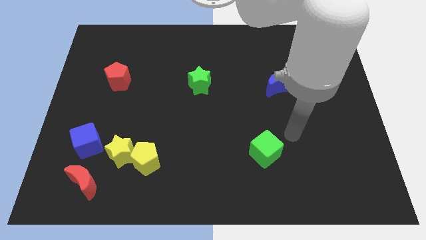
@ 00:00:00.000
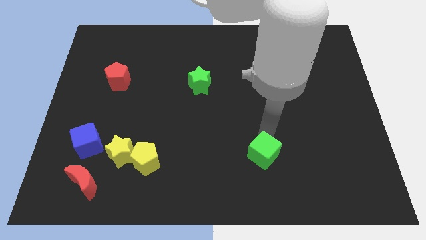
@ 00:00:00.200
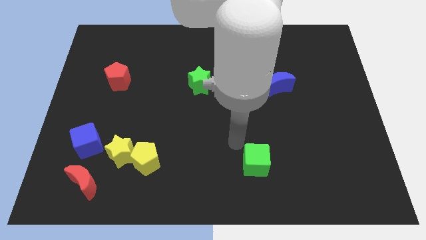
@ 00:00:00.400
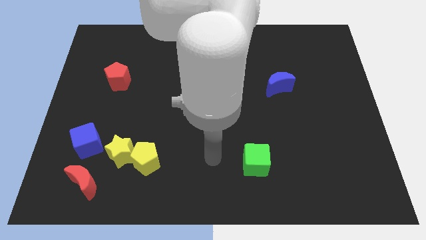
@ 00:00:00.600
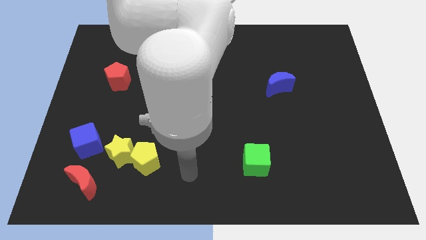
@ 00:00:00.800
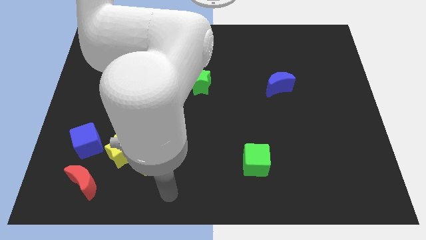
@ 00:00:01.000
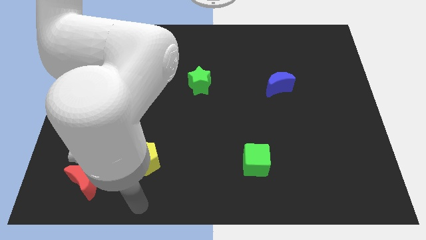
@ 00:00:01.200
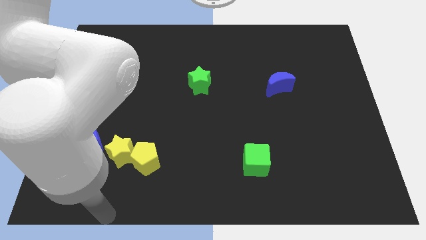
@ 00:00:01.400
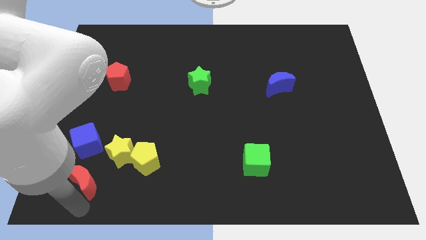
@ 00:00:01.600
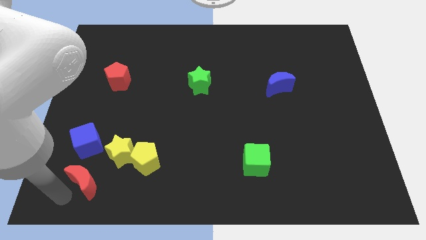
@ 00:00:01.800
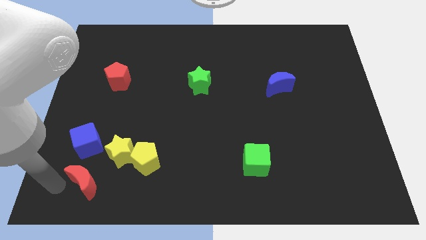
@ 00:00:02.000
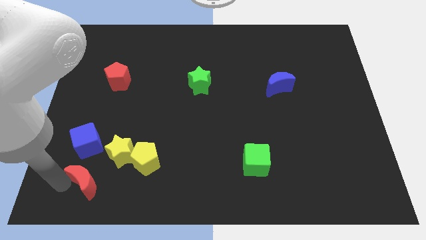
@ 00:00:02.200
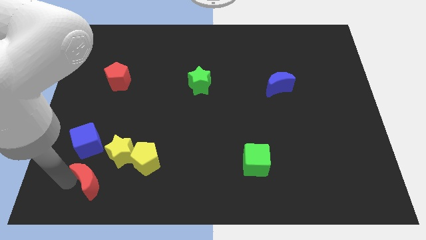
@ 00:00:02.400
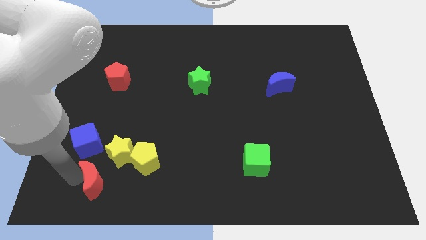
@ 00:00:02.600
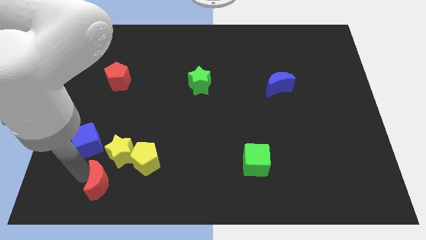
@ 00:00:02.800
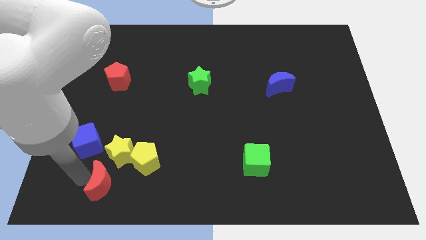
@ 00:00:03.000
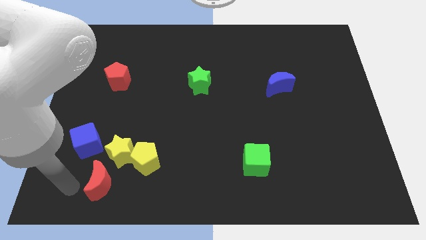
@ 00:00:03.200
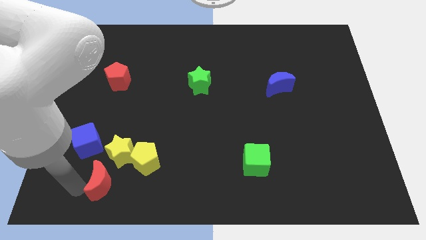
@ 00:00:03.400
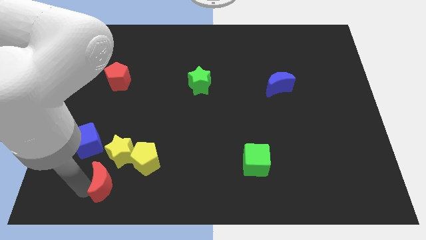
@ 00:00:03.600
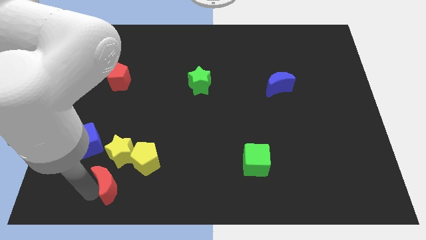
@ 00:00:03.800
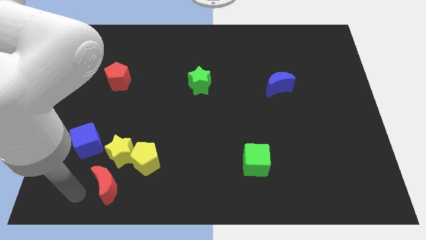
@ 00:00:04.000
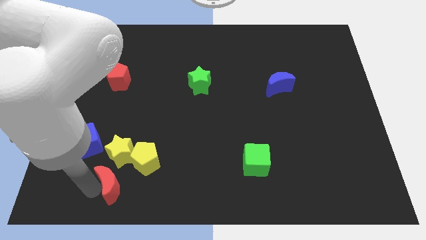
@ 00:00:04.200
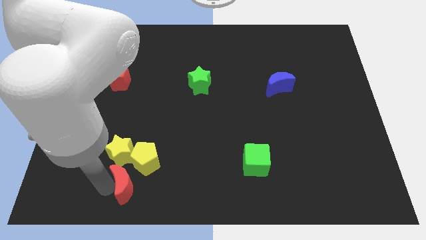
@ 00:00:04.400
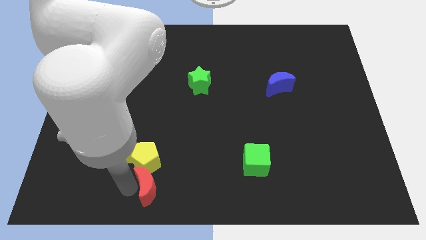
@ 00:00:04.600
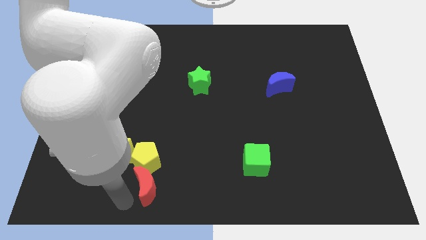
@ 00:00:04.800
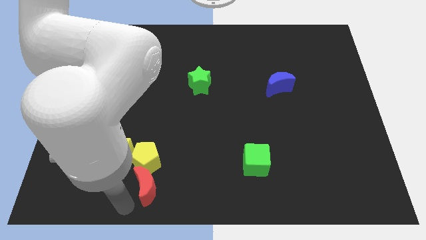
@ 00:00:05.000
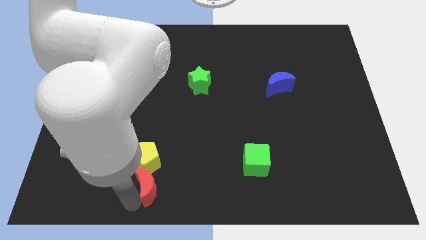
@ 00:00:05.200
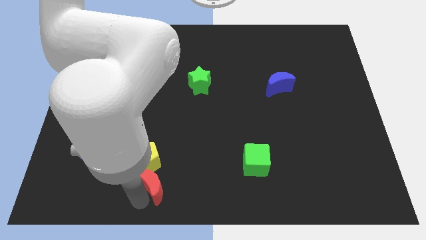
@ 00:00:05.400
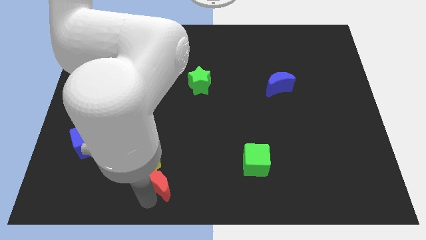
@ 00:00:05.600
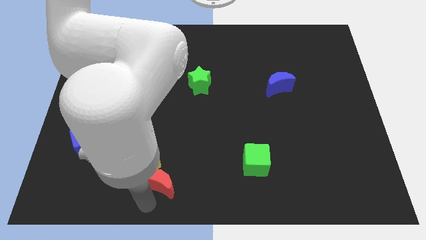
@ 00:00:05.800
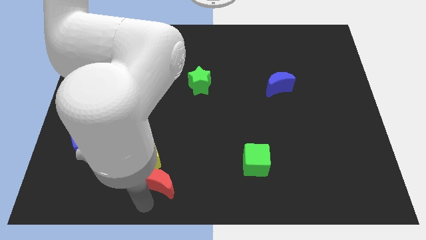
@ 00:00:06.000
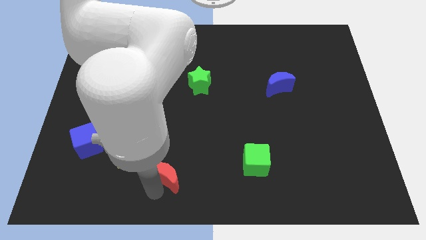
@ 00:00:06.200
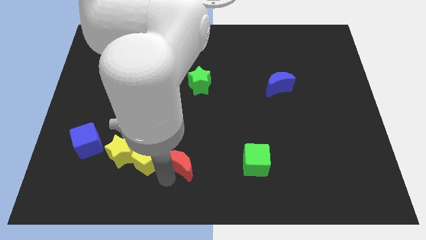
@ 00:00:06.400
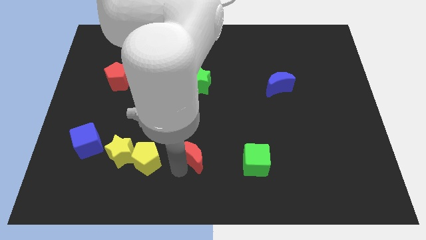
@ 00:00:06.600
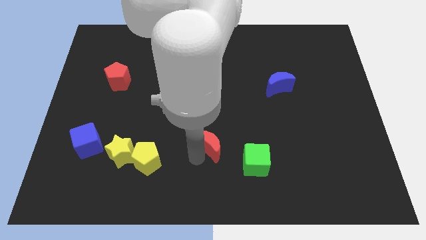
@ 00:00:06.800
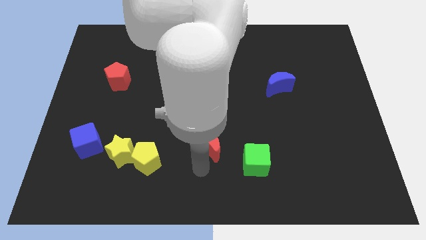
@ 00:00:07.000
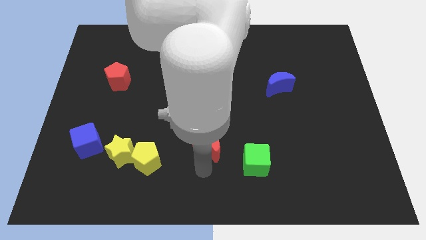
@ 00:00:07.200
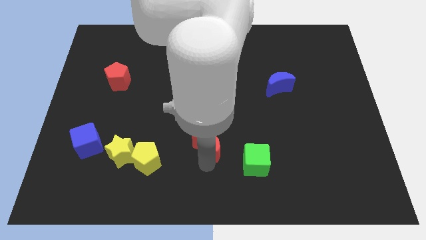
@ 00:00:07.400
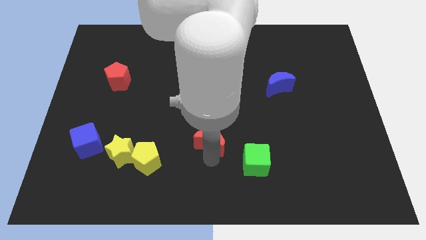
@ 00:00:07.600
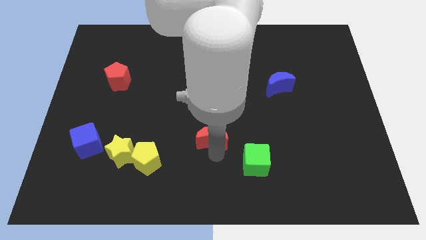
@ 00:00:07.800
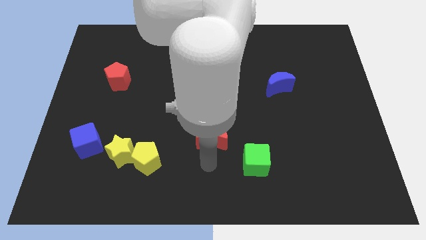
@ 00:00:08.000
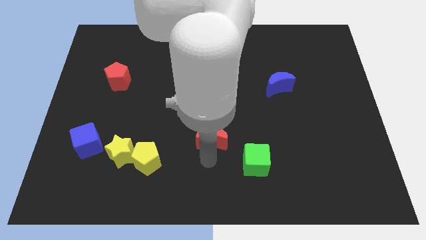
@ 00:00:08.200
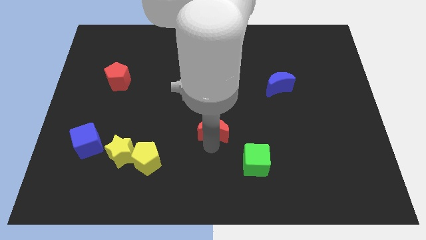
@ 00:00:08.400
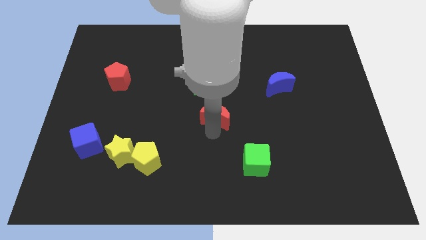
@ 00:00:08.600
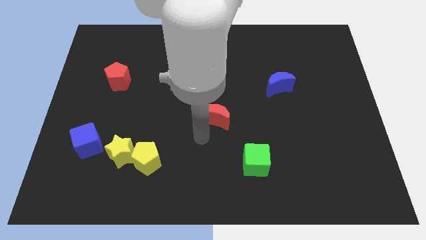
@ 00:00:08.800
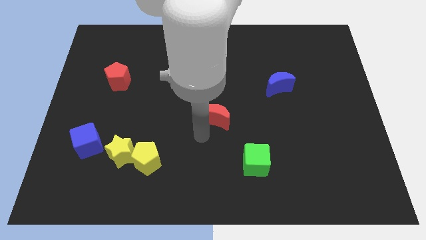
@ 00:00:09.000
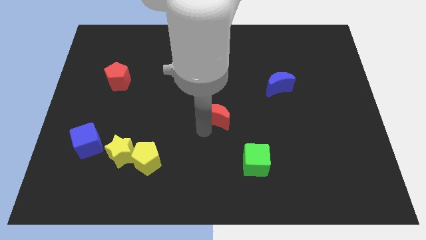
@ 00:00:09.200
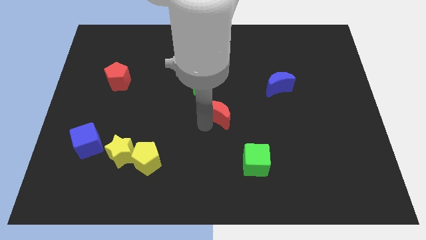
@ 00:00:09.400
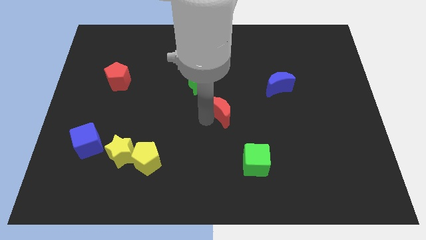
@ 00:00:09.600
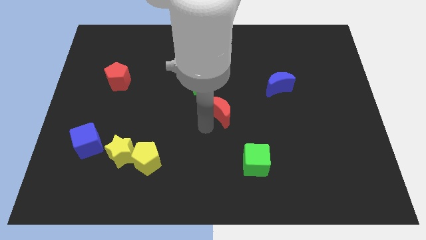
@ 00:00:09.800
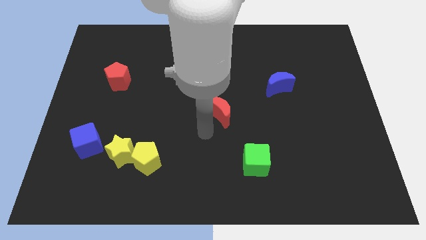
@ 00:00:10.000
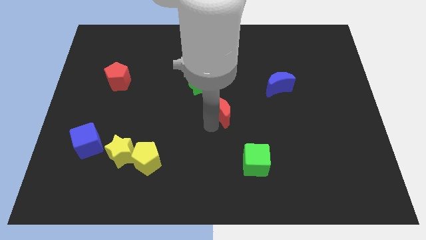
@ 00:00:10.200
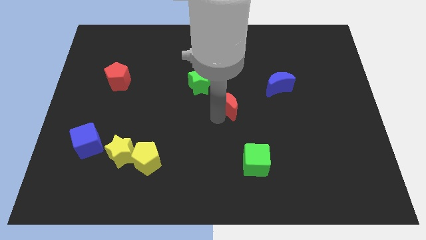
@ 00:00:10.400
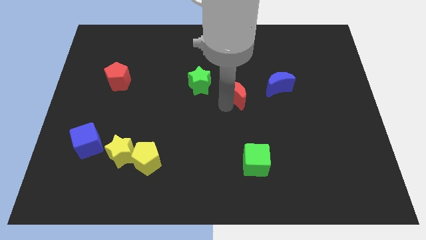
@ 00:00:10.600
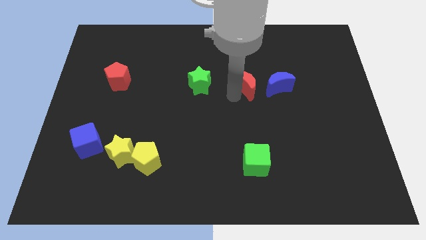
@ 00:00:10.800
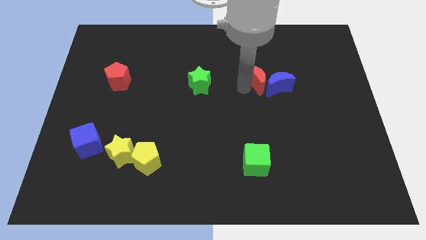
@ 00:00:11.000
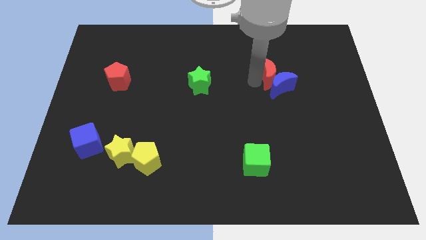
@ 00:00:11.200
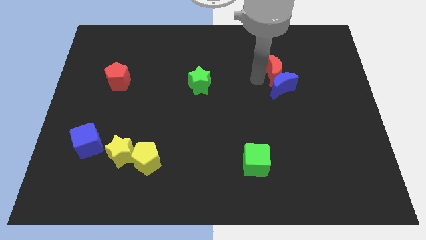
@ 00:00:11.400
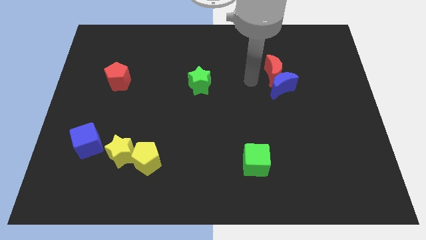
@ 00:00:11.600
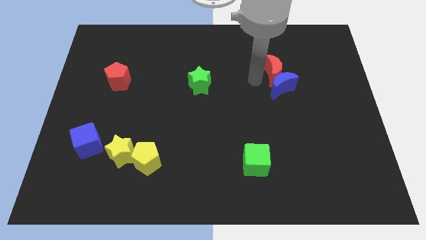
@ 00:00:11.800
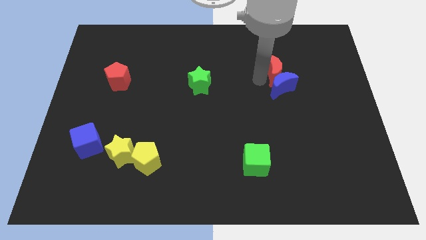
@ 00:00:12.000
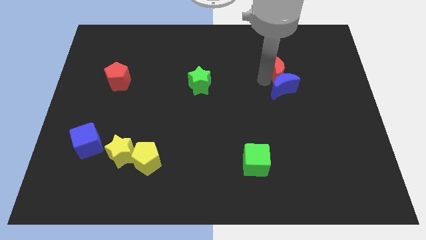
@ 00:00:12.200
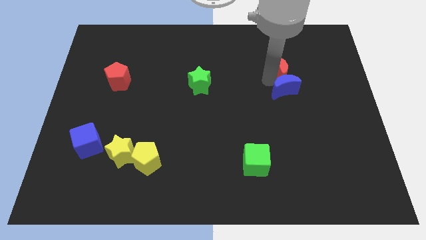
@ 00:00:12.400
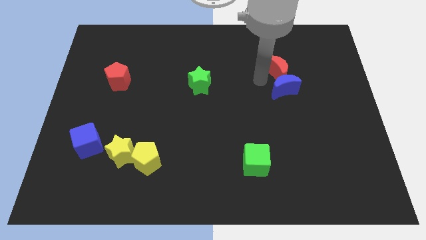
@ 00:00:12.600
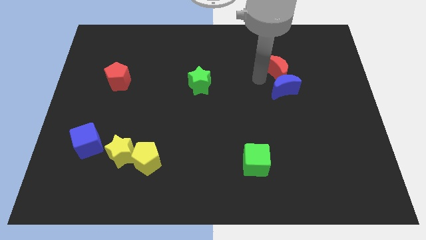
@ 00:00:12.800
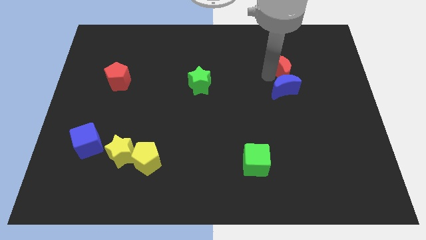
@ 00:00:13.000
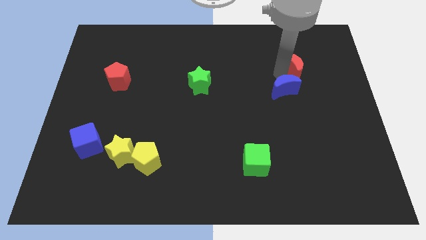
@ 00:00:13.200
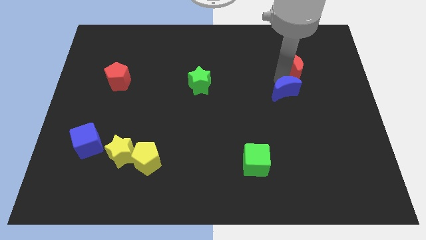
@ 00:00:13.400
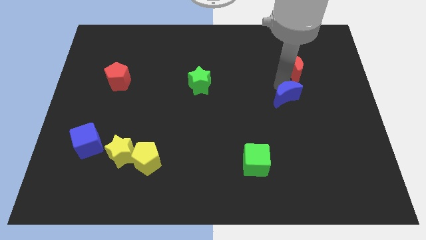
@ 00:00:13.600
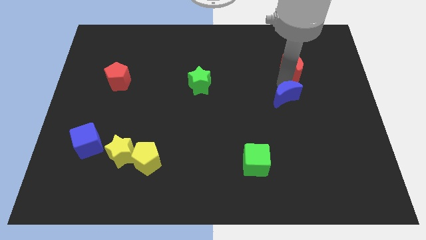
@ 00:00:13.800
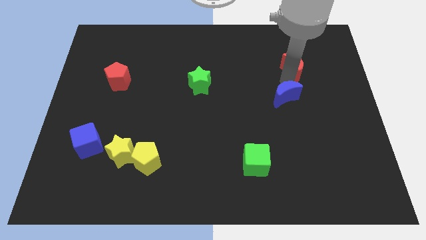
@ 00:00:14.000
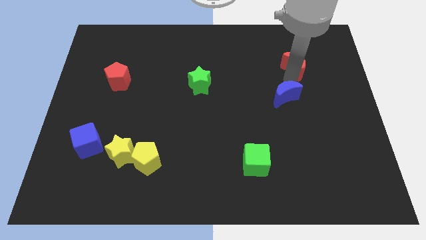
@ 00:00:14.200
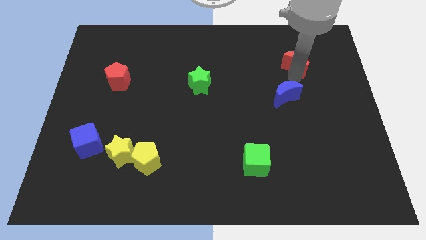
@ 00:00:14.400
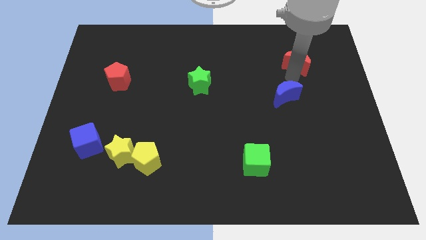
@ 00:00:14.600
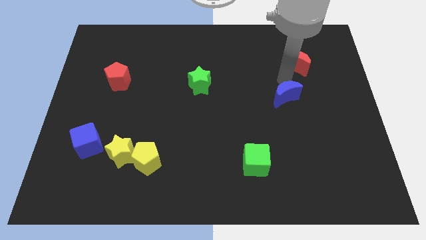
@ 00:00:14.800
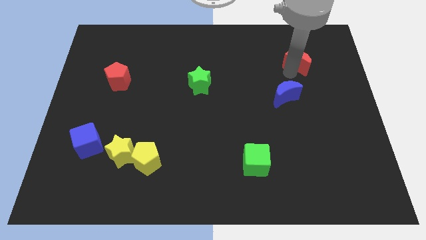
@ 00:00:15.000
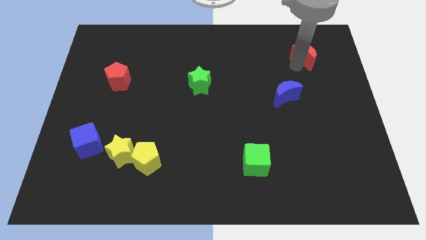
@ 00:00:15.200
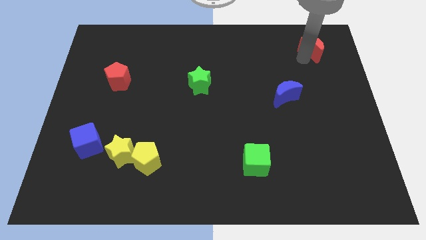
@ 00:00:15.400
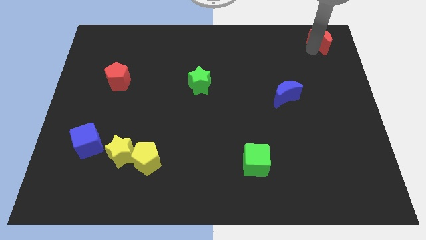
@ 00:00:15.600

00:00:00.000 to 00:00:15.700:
push the red moon to the top right of the board

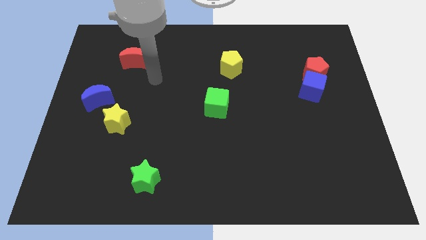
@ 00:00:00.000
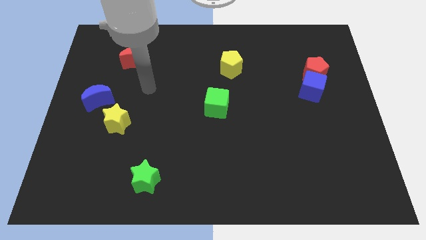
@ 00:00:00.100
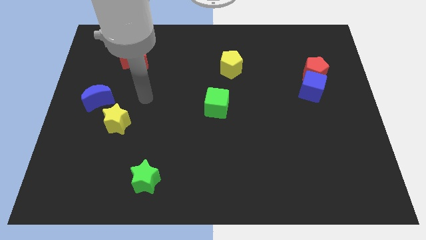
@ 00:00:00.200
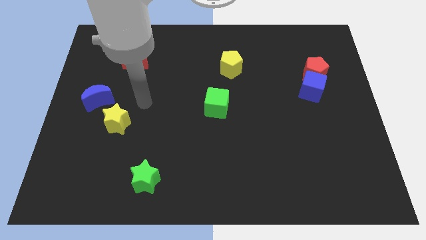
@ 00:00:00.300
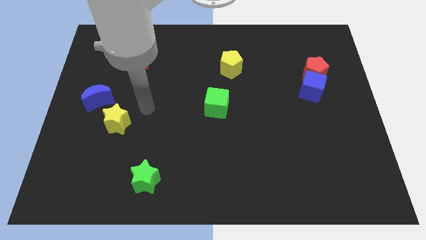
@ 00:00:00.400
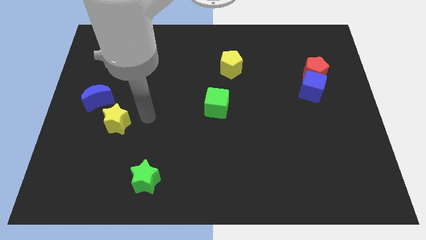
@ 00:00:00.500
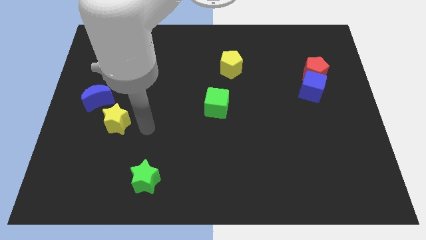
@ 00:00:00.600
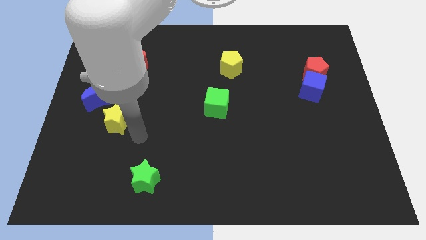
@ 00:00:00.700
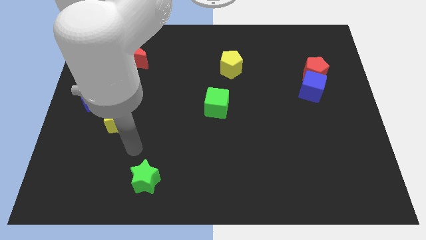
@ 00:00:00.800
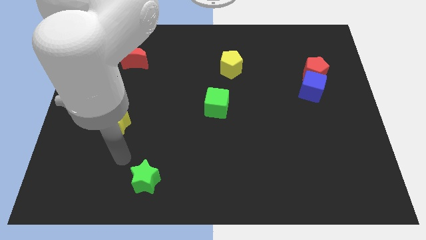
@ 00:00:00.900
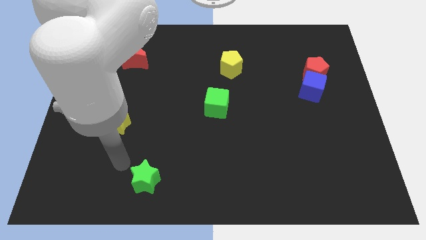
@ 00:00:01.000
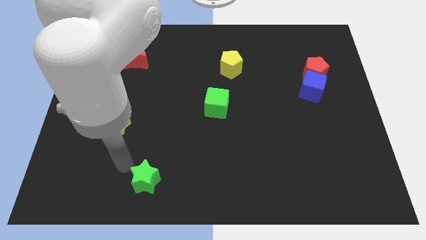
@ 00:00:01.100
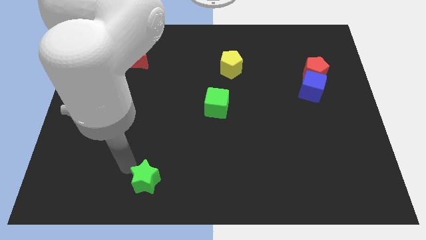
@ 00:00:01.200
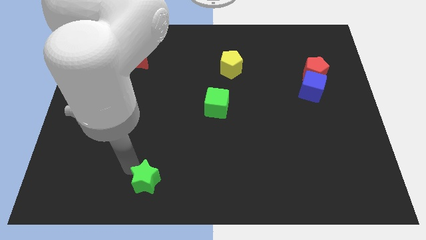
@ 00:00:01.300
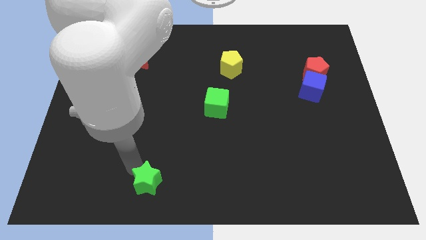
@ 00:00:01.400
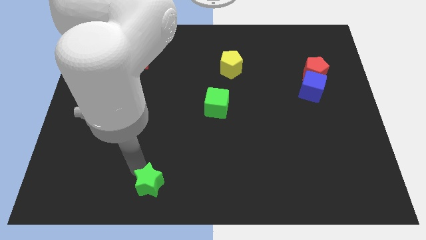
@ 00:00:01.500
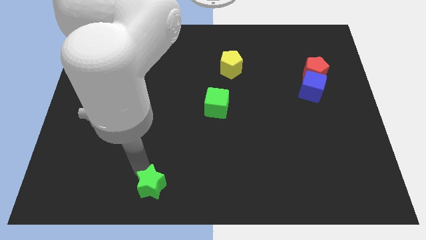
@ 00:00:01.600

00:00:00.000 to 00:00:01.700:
move the green star to the bottom side
